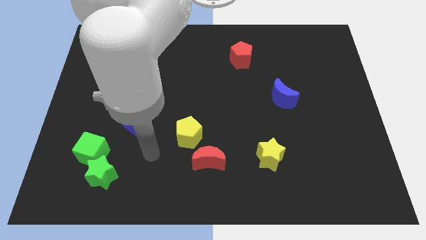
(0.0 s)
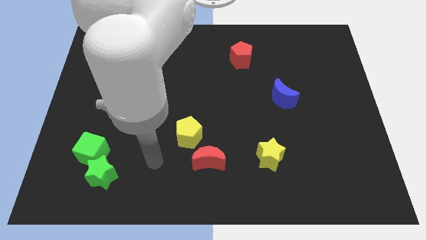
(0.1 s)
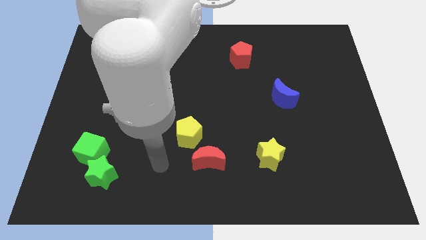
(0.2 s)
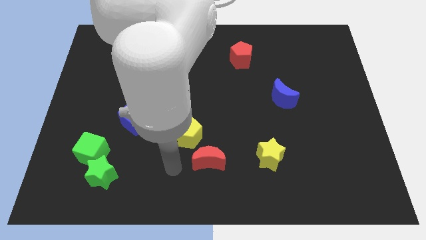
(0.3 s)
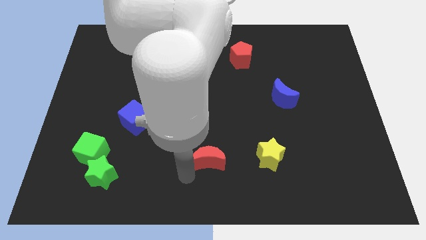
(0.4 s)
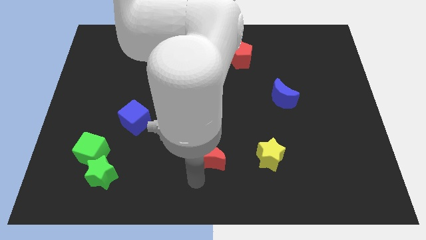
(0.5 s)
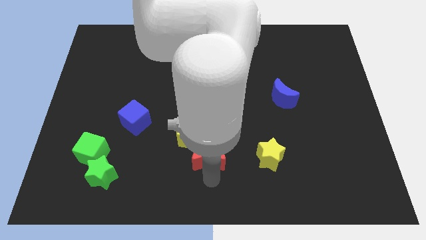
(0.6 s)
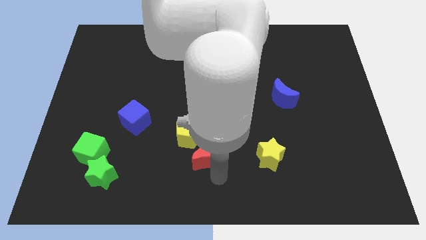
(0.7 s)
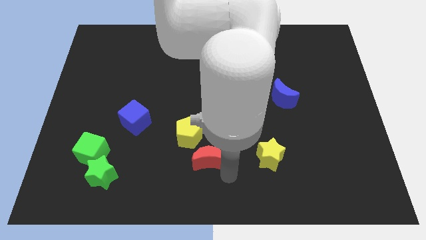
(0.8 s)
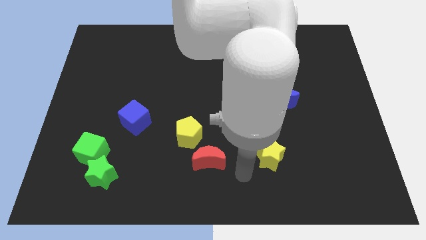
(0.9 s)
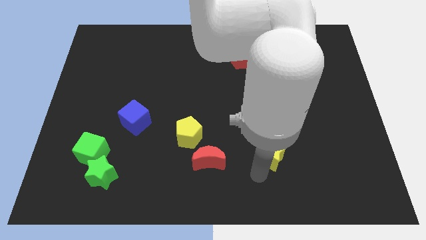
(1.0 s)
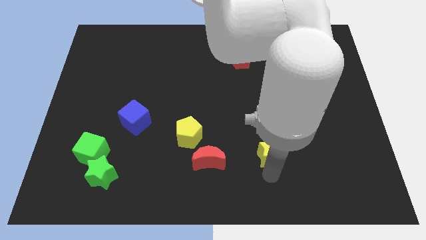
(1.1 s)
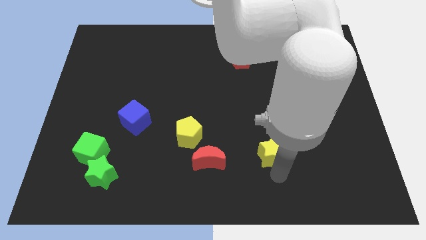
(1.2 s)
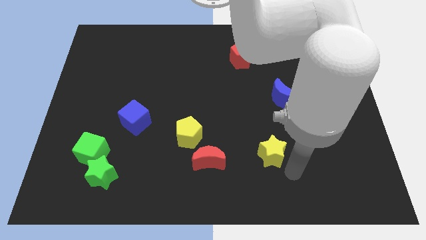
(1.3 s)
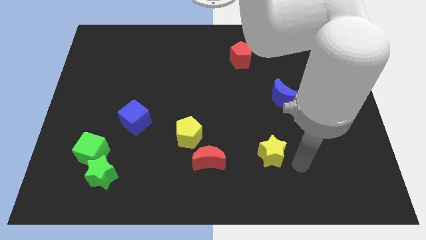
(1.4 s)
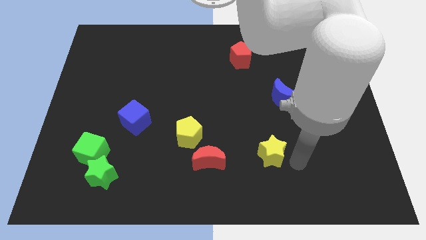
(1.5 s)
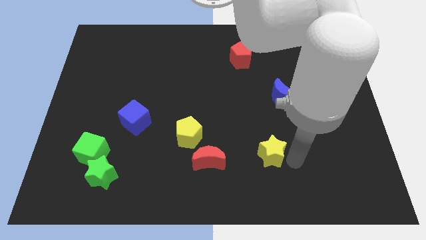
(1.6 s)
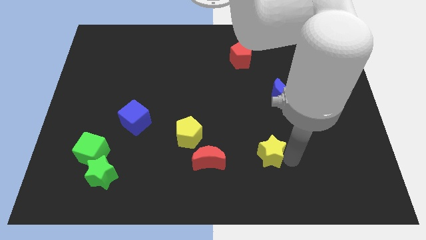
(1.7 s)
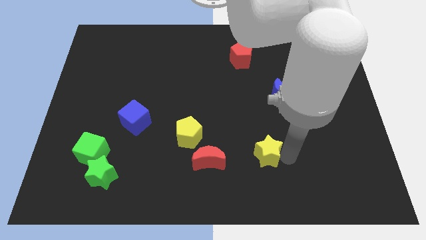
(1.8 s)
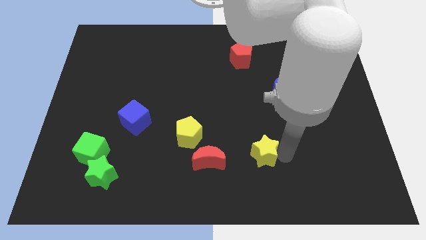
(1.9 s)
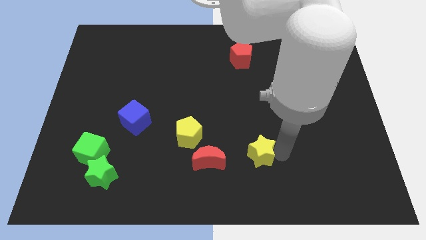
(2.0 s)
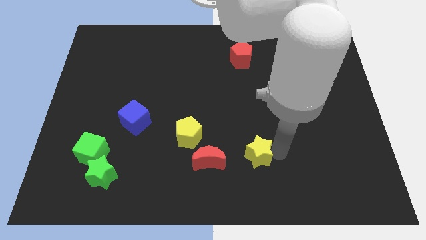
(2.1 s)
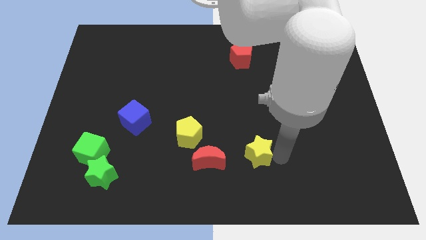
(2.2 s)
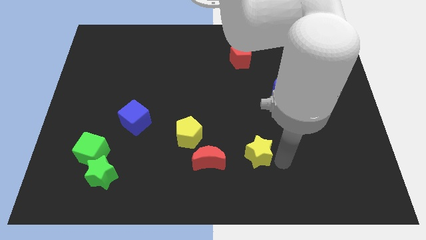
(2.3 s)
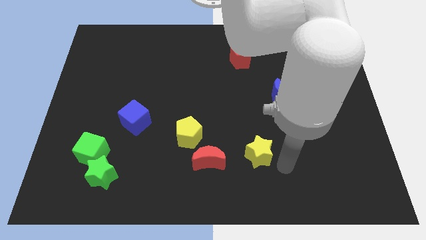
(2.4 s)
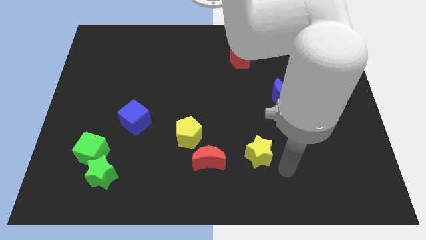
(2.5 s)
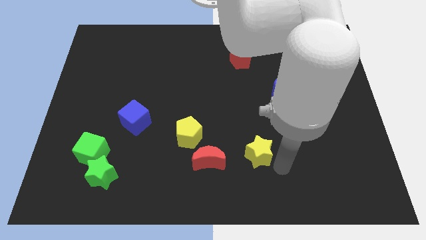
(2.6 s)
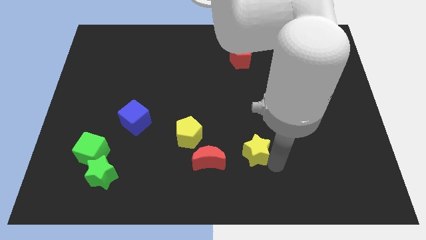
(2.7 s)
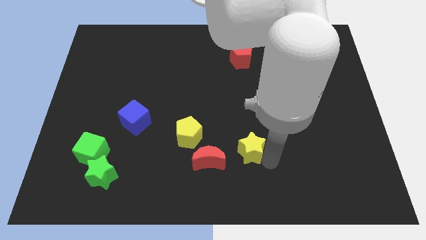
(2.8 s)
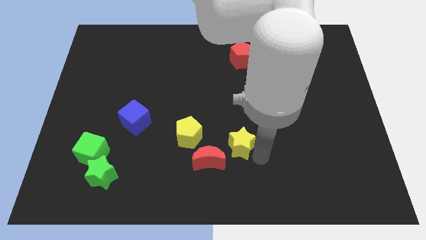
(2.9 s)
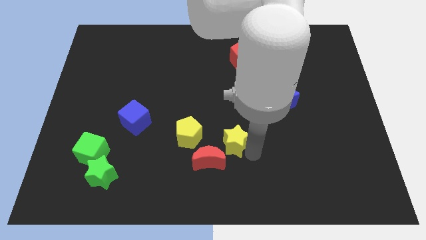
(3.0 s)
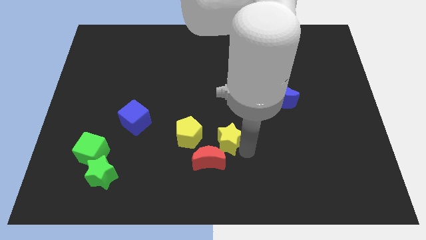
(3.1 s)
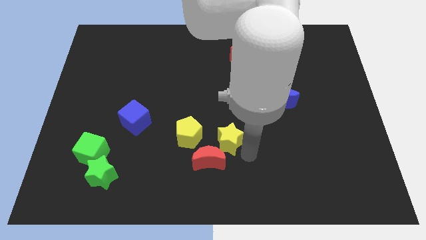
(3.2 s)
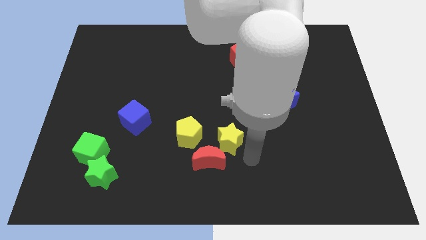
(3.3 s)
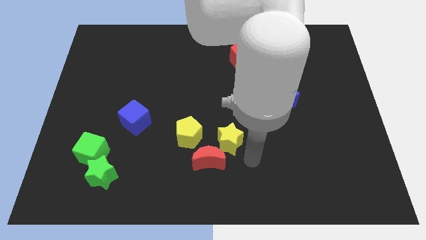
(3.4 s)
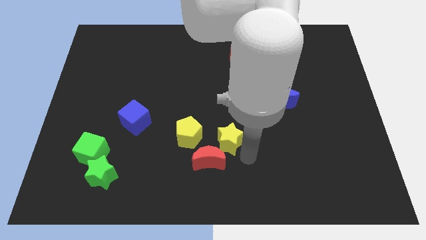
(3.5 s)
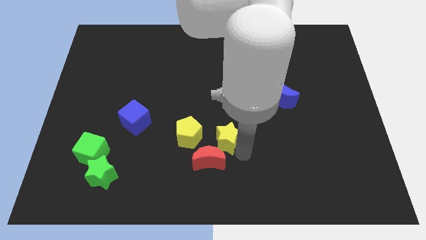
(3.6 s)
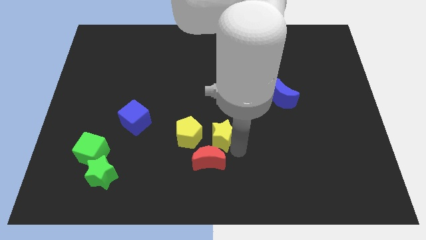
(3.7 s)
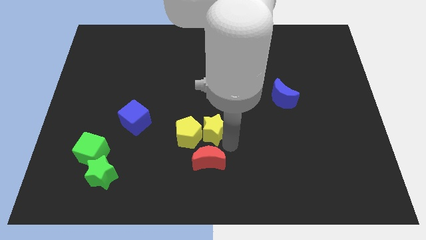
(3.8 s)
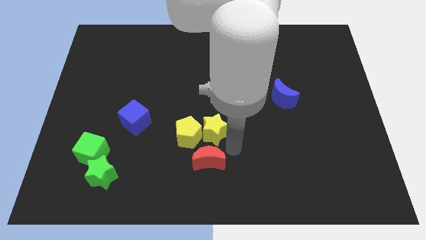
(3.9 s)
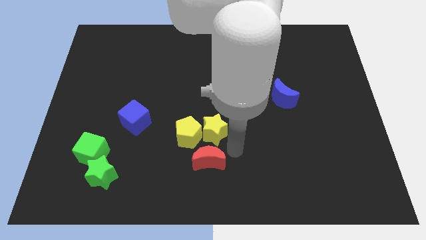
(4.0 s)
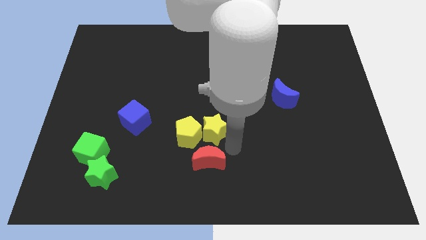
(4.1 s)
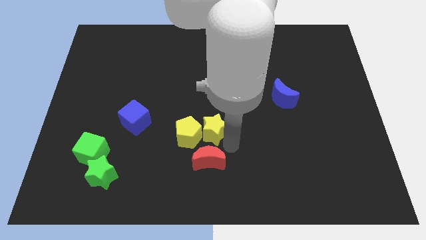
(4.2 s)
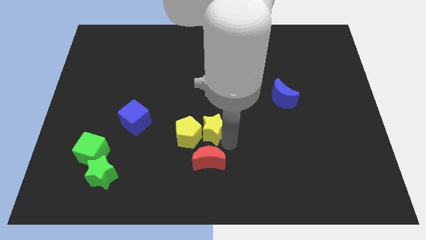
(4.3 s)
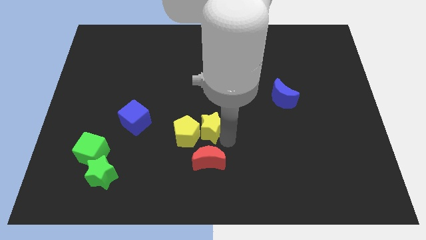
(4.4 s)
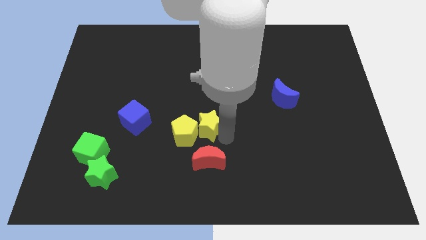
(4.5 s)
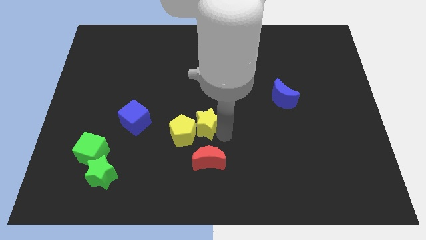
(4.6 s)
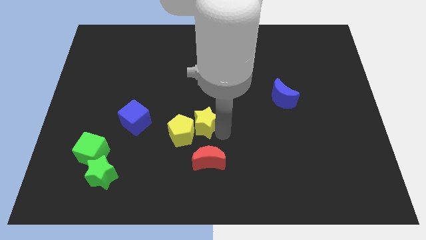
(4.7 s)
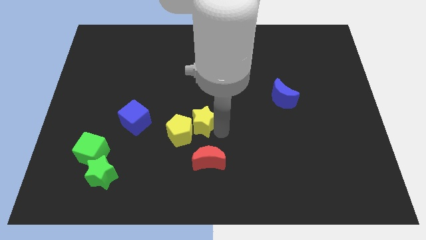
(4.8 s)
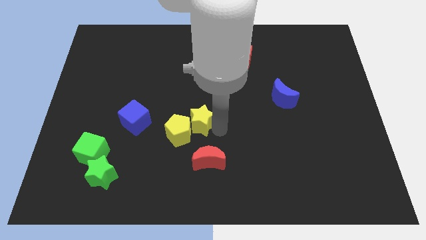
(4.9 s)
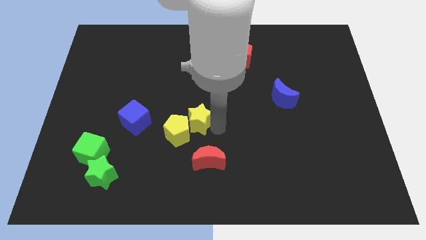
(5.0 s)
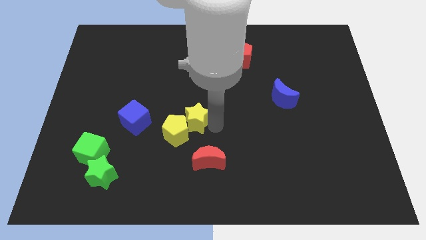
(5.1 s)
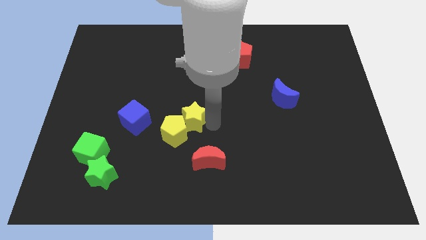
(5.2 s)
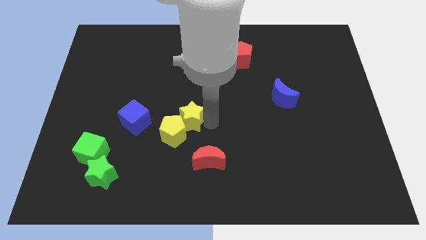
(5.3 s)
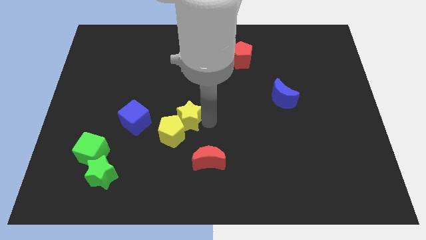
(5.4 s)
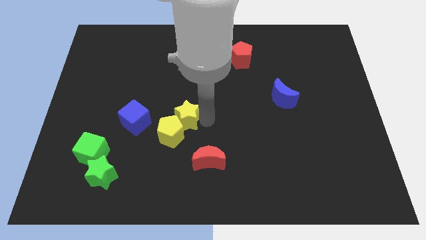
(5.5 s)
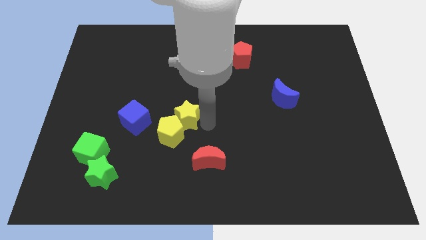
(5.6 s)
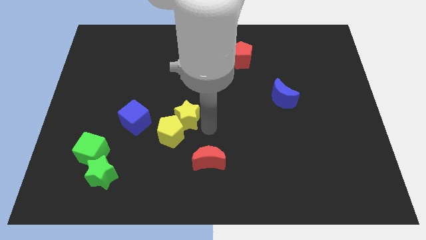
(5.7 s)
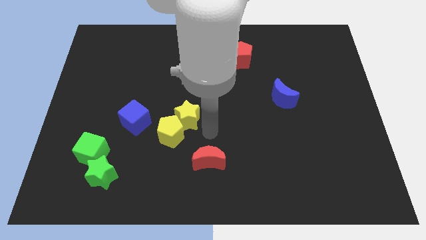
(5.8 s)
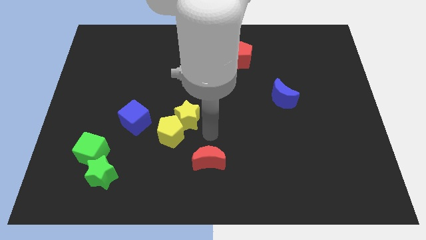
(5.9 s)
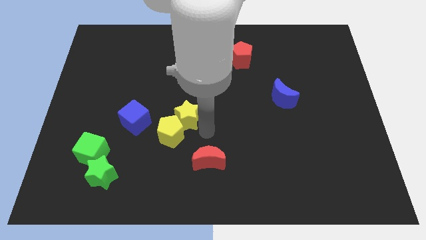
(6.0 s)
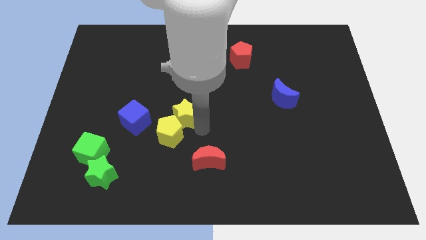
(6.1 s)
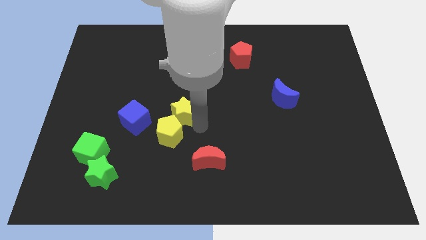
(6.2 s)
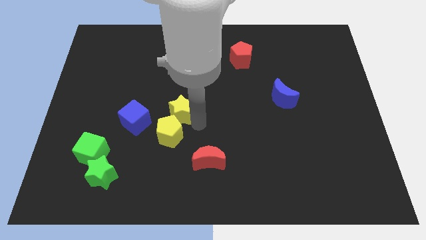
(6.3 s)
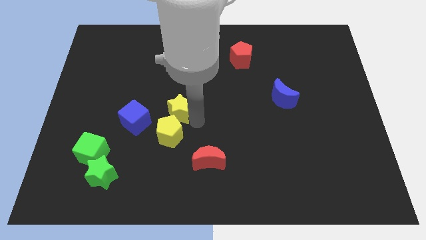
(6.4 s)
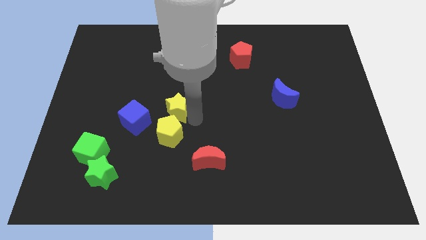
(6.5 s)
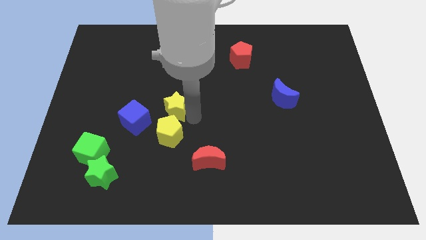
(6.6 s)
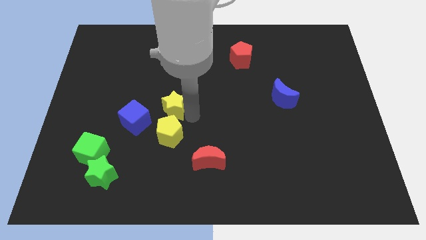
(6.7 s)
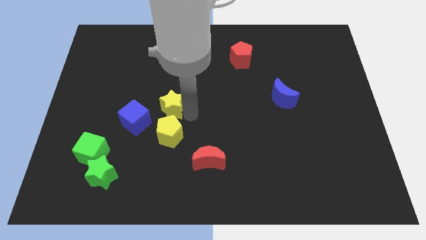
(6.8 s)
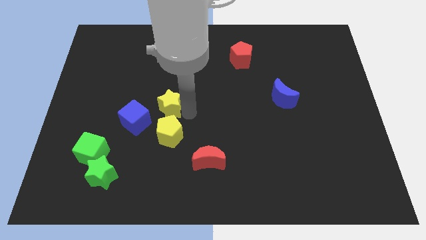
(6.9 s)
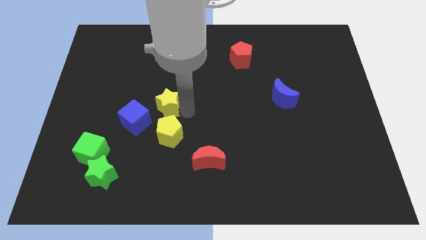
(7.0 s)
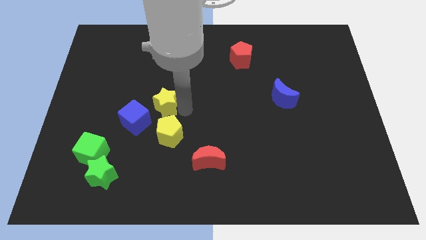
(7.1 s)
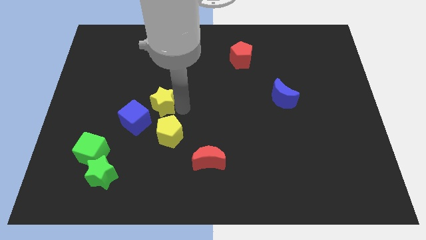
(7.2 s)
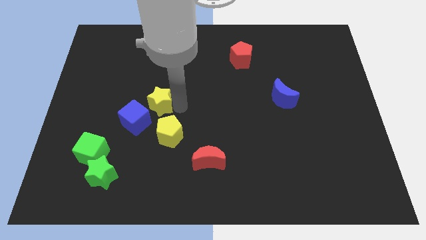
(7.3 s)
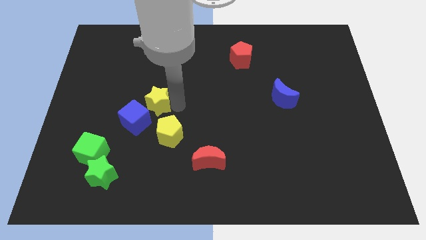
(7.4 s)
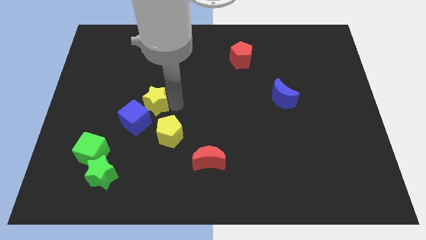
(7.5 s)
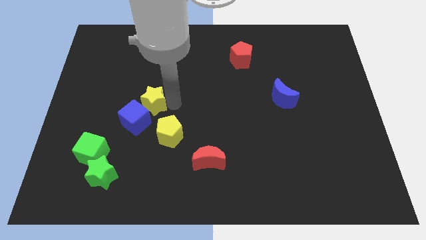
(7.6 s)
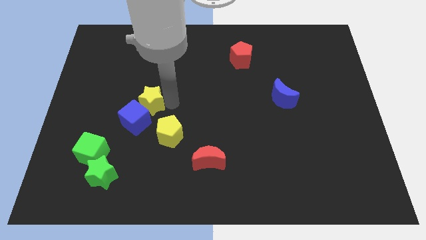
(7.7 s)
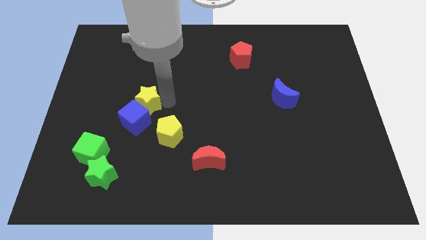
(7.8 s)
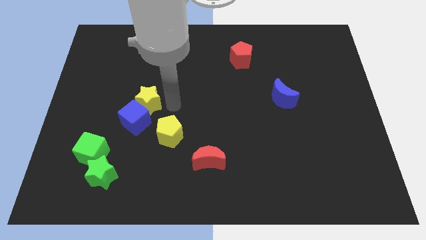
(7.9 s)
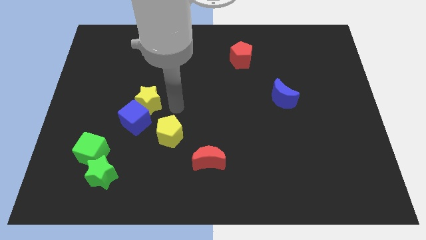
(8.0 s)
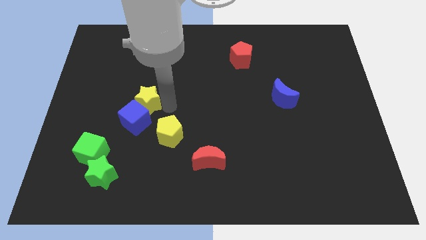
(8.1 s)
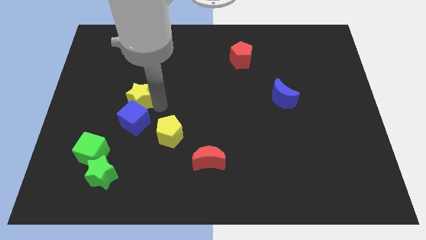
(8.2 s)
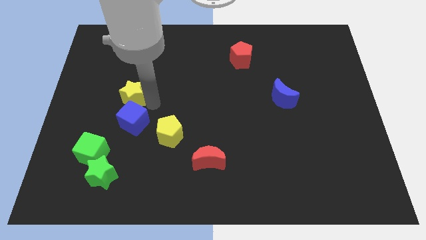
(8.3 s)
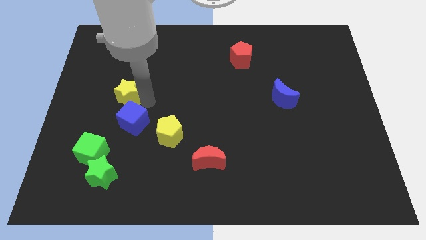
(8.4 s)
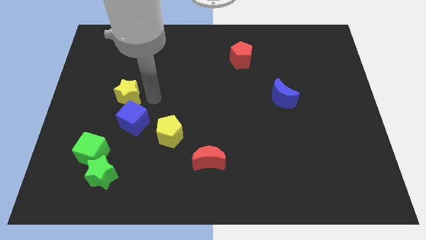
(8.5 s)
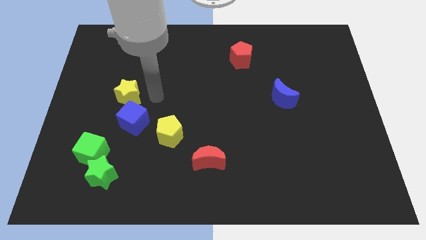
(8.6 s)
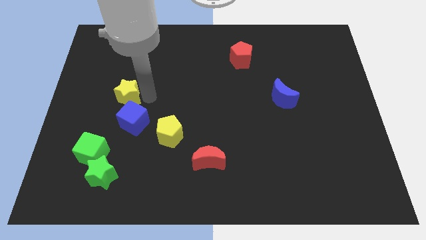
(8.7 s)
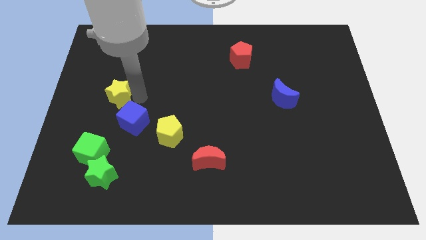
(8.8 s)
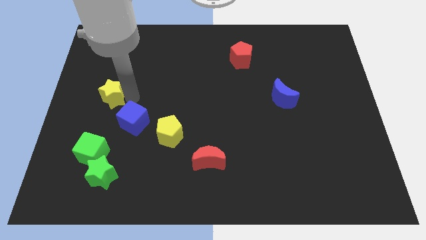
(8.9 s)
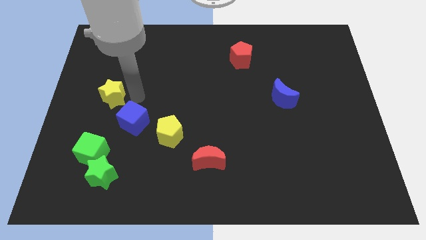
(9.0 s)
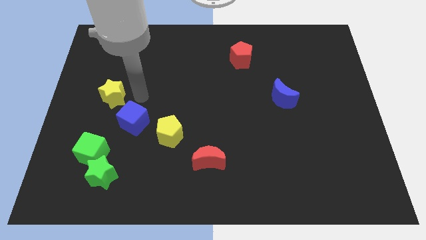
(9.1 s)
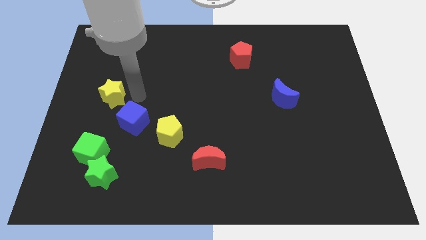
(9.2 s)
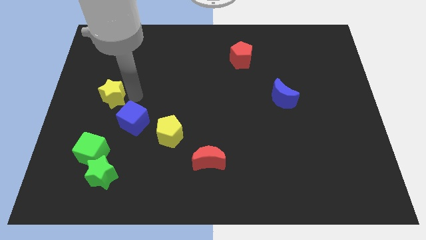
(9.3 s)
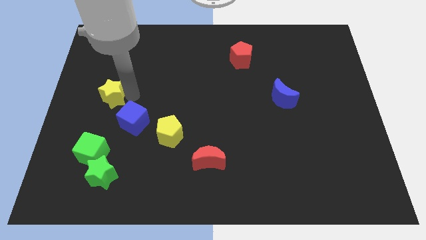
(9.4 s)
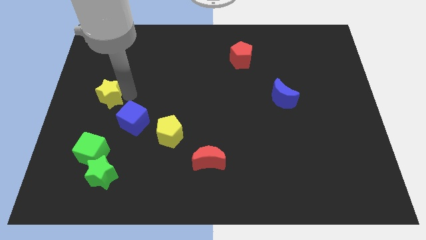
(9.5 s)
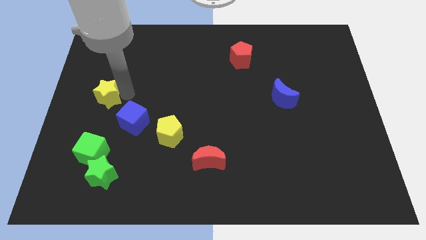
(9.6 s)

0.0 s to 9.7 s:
push the yellow star to the center left
